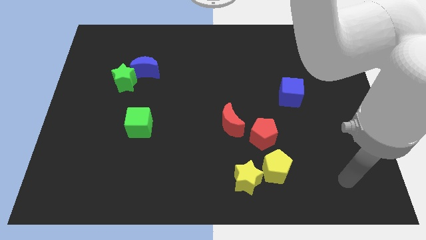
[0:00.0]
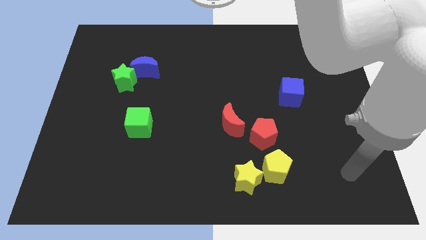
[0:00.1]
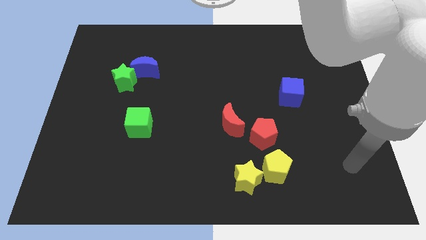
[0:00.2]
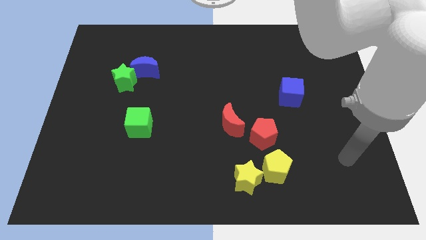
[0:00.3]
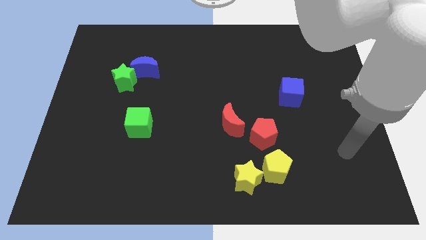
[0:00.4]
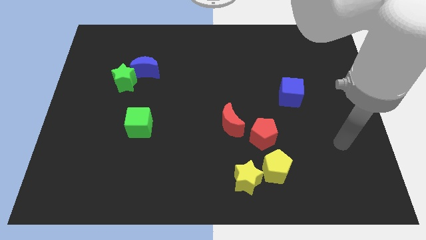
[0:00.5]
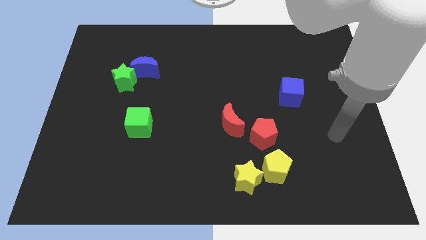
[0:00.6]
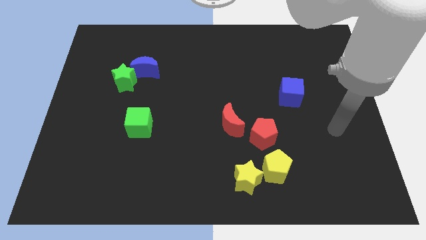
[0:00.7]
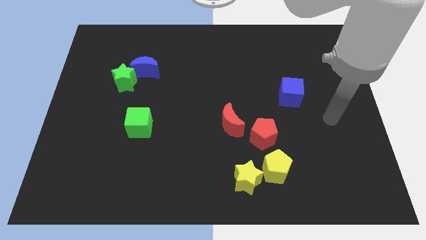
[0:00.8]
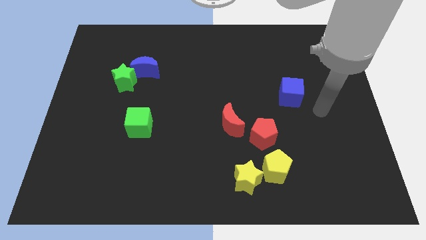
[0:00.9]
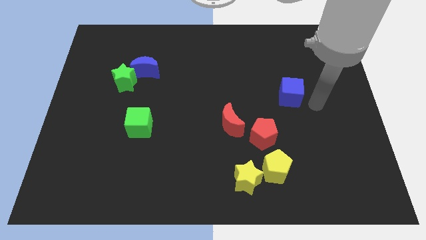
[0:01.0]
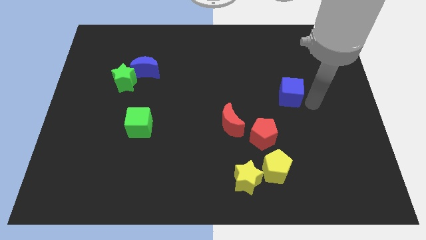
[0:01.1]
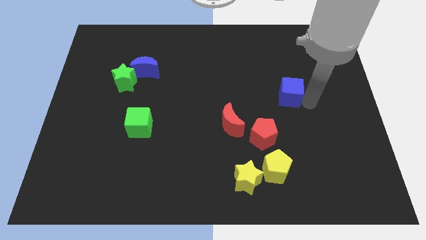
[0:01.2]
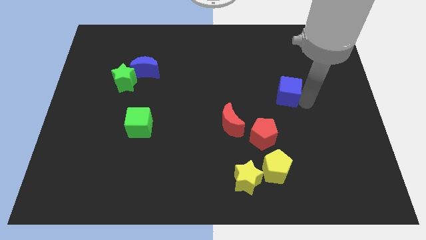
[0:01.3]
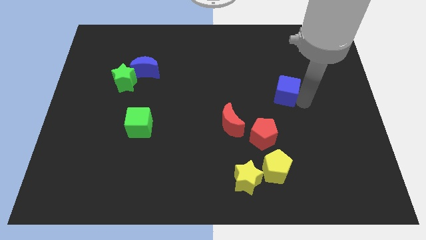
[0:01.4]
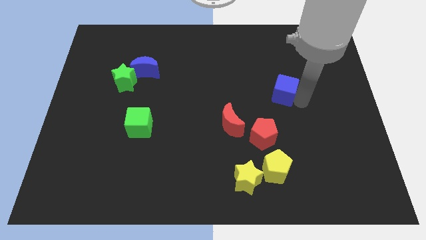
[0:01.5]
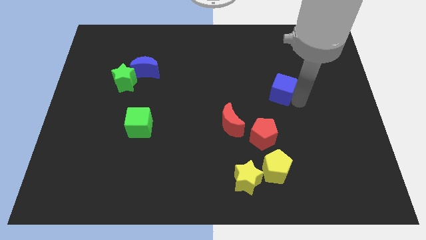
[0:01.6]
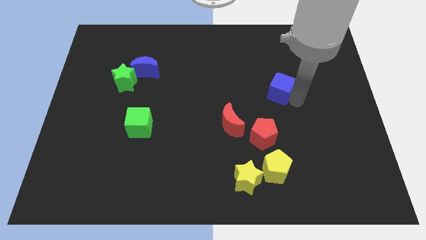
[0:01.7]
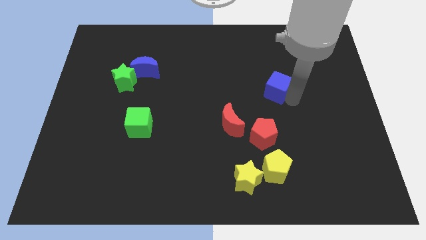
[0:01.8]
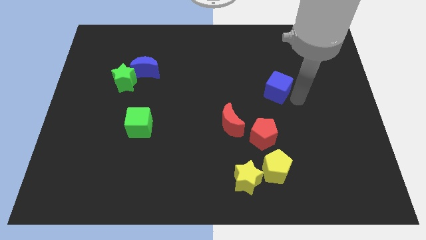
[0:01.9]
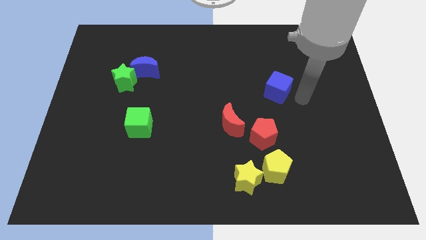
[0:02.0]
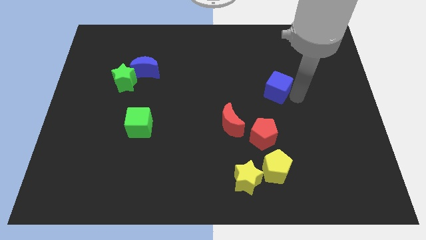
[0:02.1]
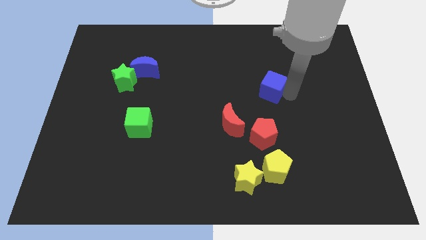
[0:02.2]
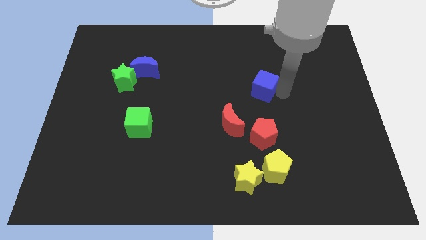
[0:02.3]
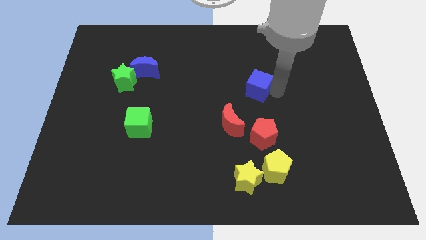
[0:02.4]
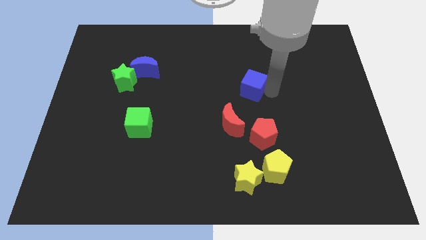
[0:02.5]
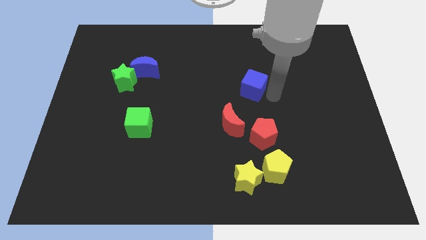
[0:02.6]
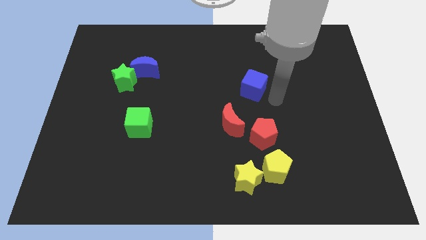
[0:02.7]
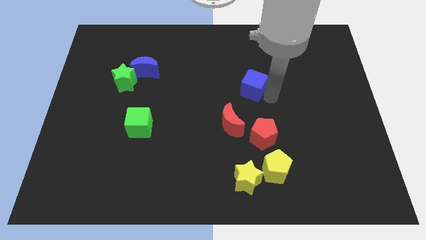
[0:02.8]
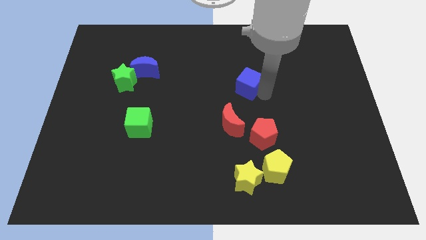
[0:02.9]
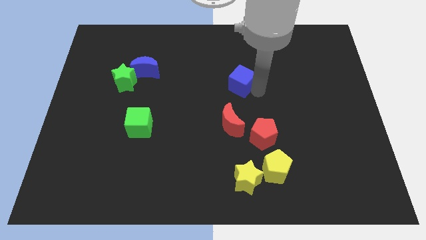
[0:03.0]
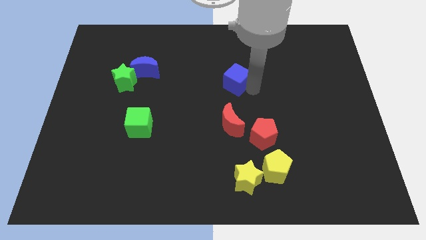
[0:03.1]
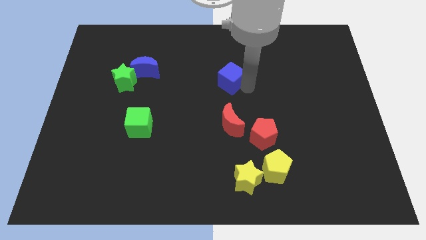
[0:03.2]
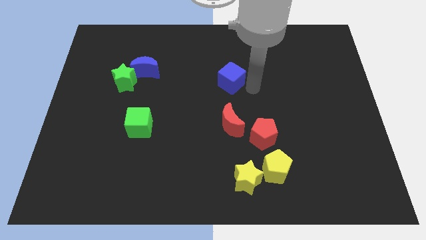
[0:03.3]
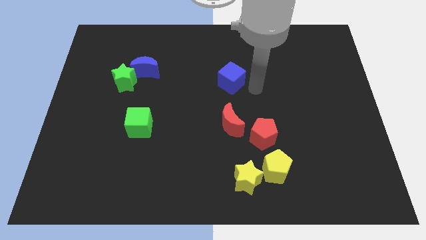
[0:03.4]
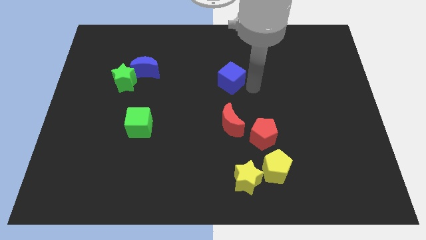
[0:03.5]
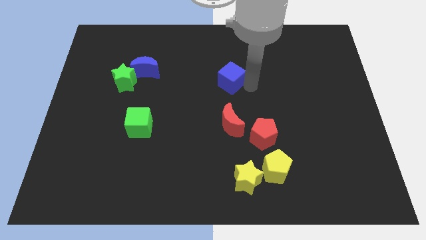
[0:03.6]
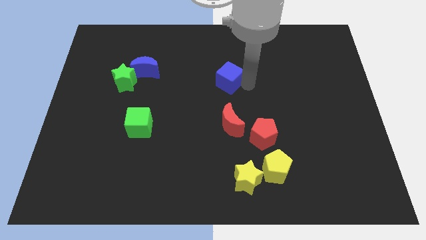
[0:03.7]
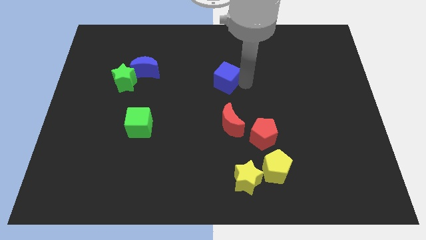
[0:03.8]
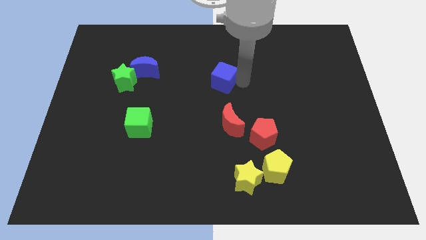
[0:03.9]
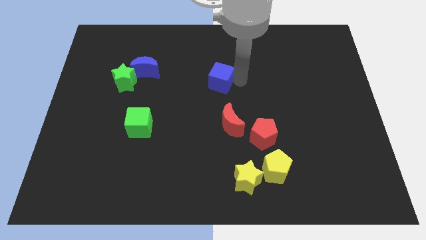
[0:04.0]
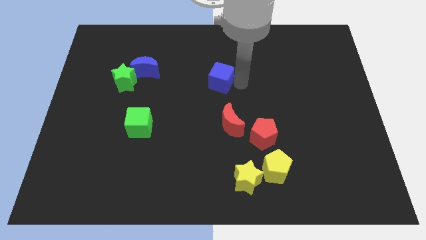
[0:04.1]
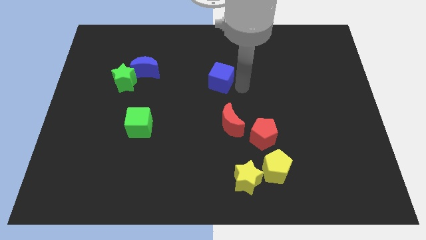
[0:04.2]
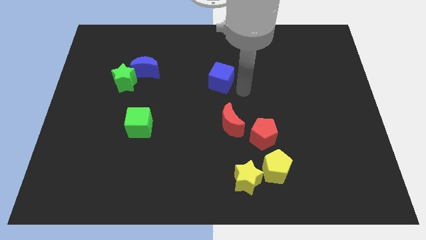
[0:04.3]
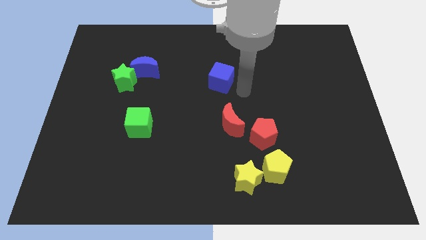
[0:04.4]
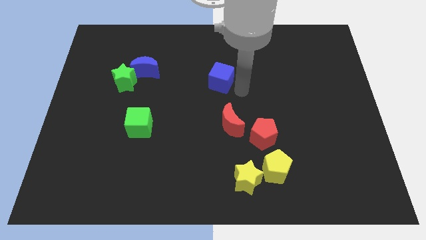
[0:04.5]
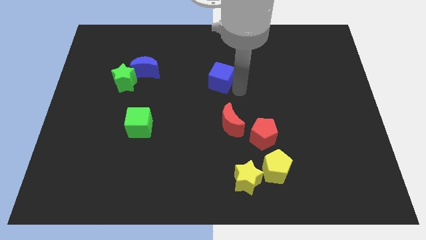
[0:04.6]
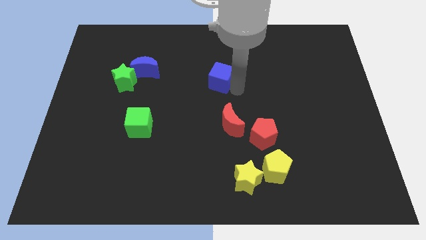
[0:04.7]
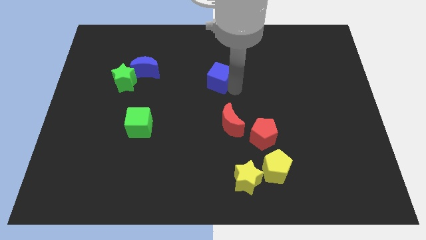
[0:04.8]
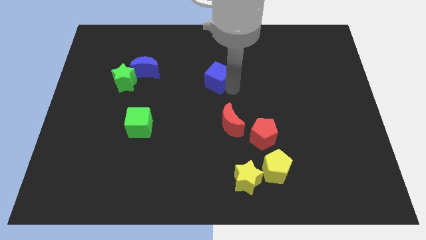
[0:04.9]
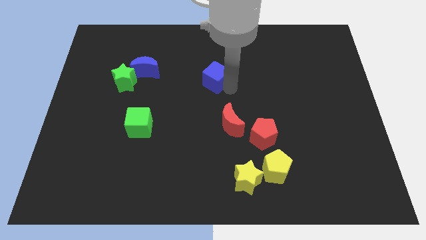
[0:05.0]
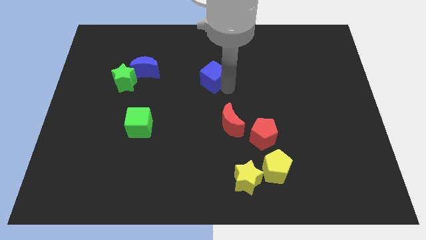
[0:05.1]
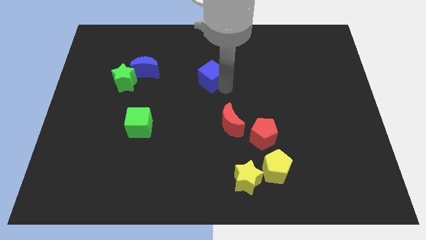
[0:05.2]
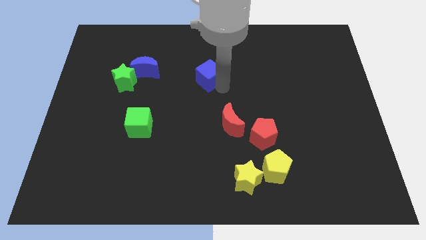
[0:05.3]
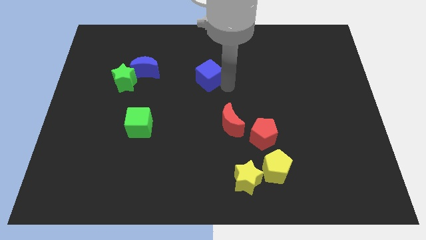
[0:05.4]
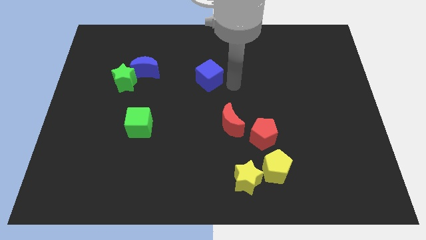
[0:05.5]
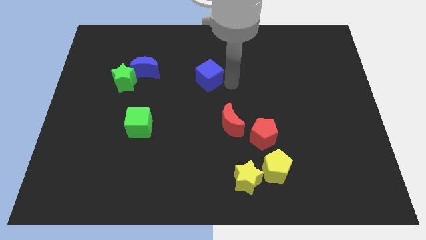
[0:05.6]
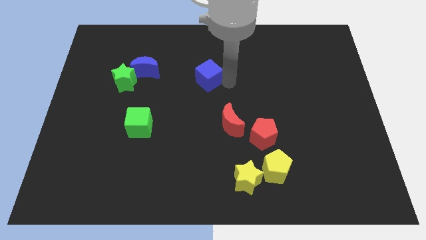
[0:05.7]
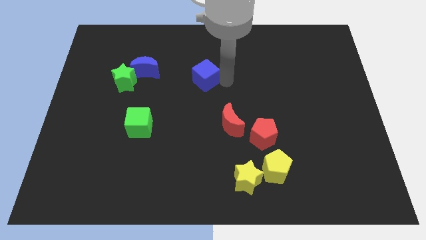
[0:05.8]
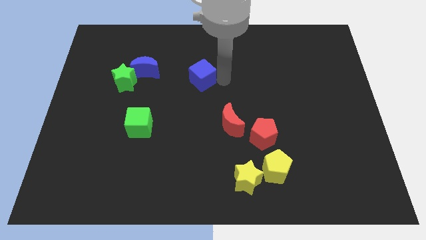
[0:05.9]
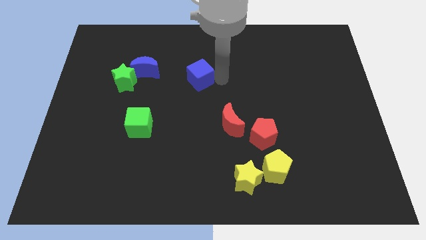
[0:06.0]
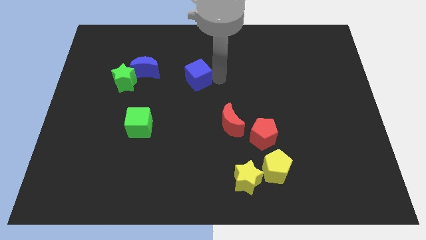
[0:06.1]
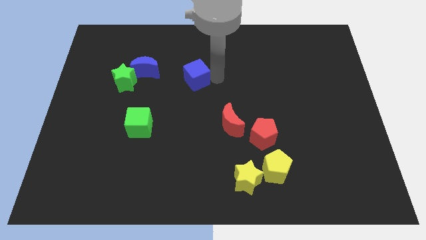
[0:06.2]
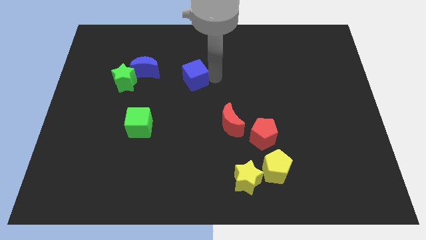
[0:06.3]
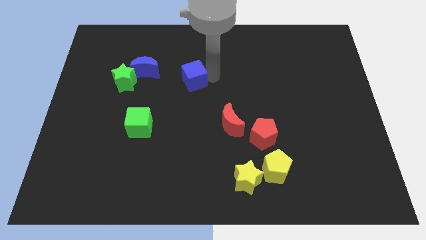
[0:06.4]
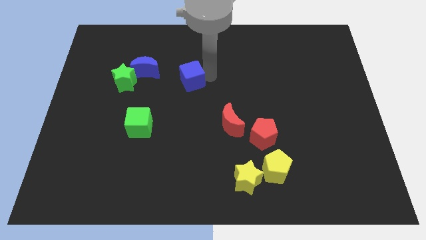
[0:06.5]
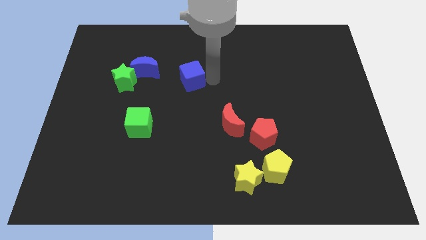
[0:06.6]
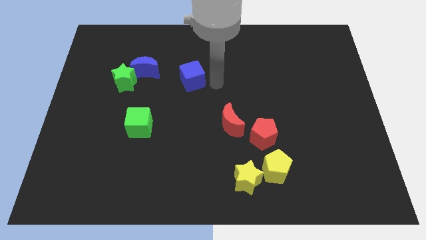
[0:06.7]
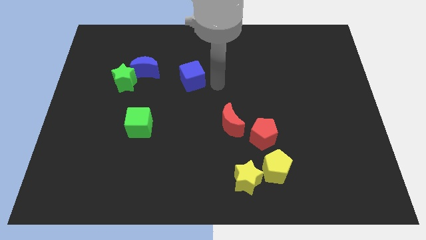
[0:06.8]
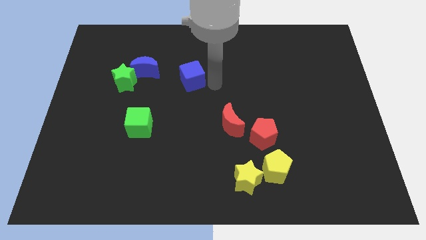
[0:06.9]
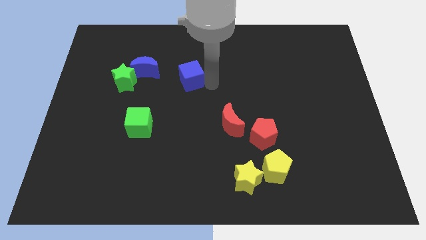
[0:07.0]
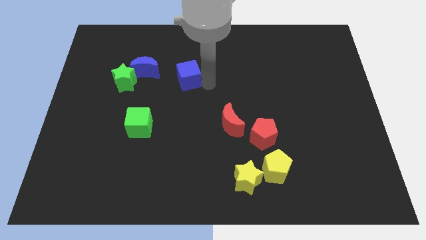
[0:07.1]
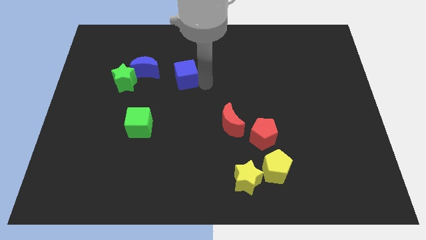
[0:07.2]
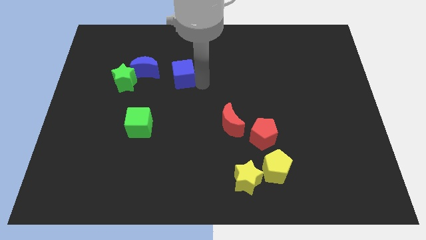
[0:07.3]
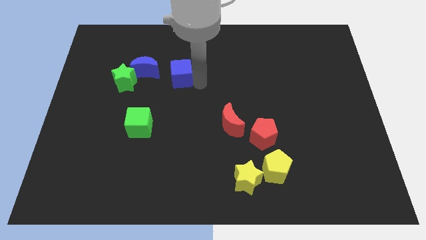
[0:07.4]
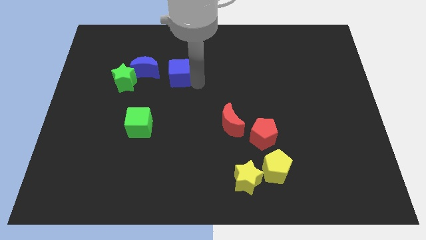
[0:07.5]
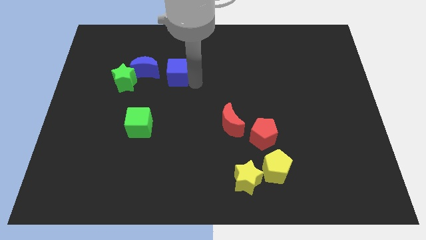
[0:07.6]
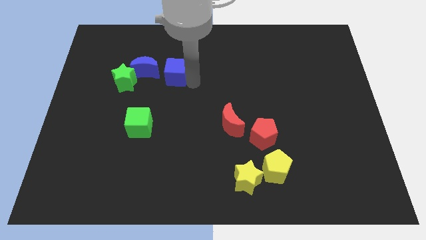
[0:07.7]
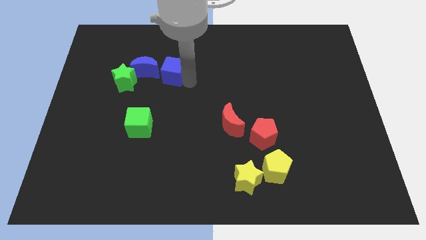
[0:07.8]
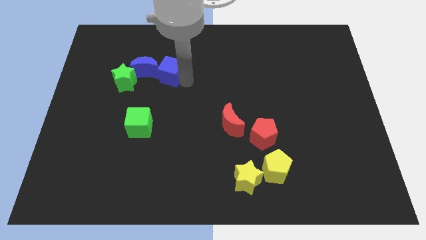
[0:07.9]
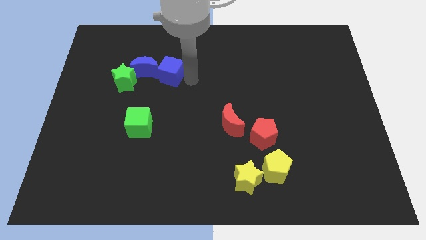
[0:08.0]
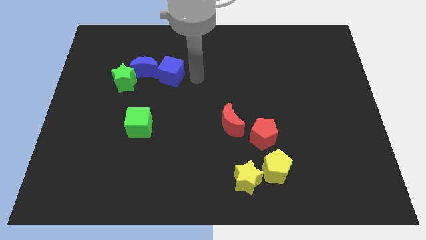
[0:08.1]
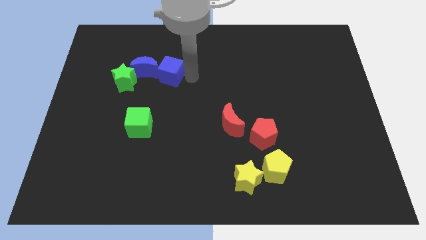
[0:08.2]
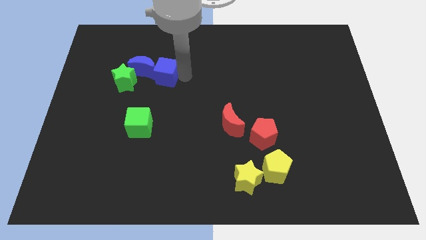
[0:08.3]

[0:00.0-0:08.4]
move the blue cube to the blue moon
